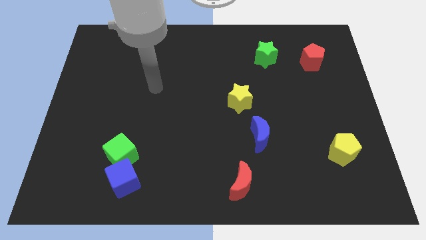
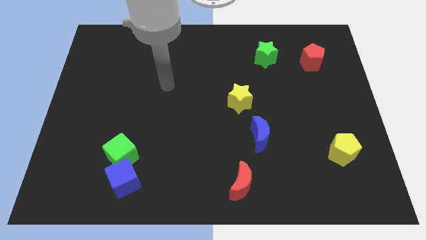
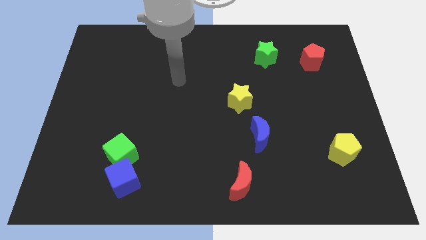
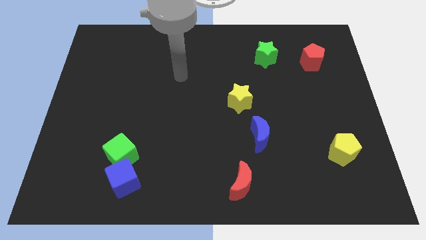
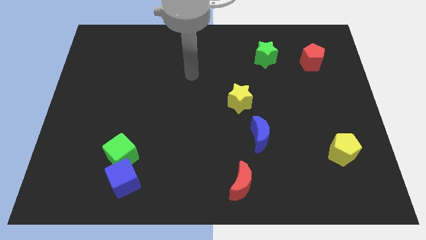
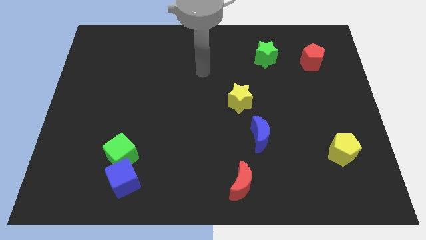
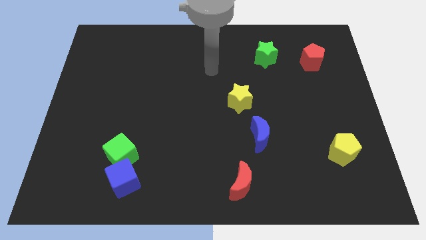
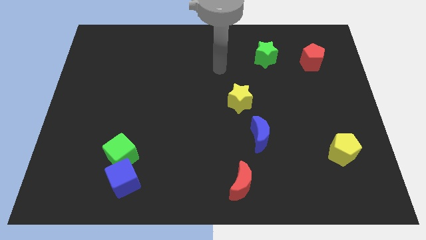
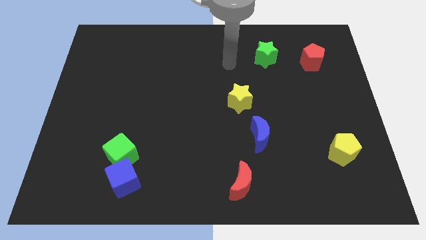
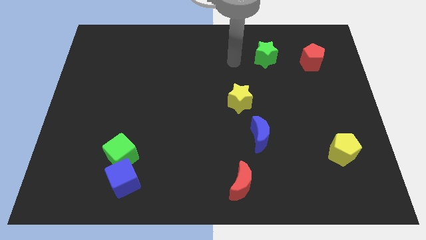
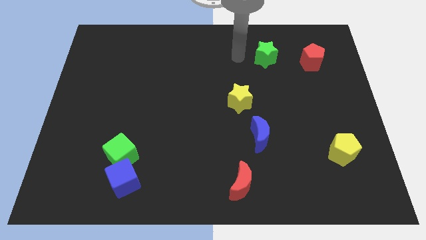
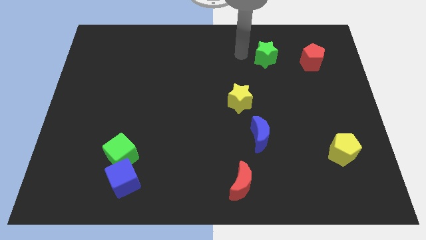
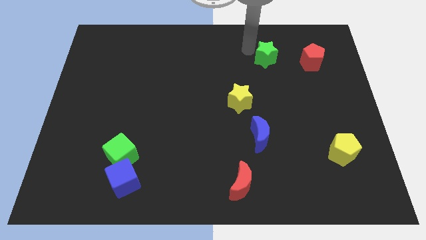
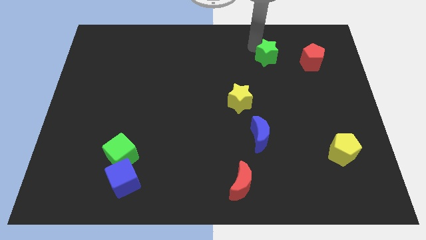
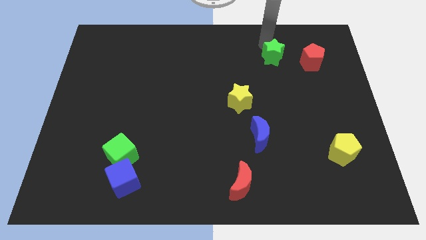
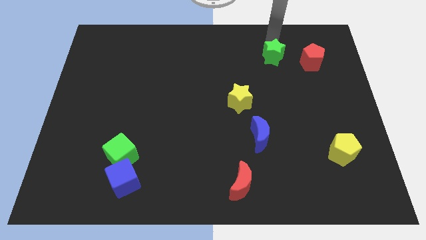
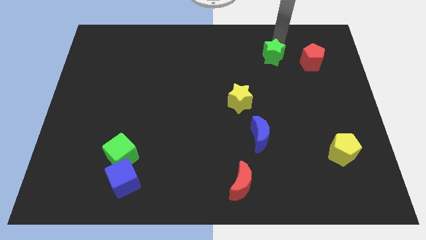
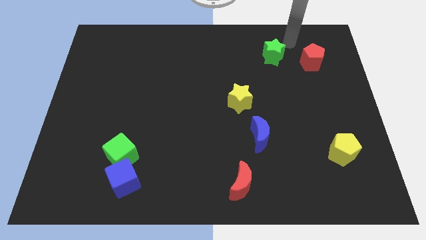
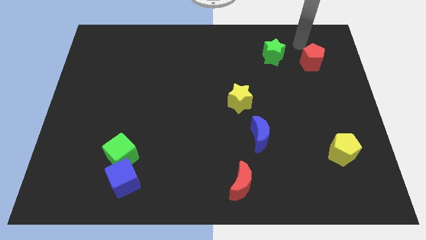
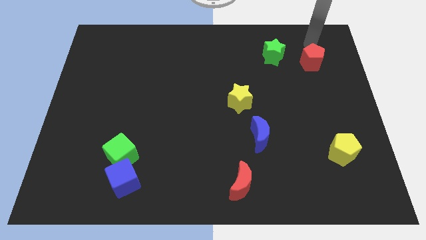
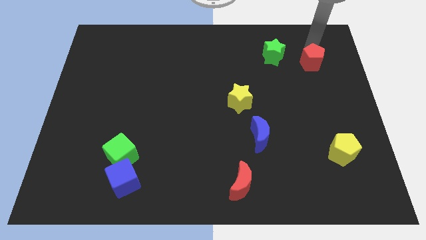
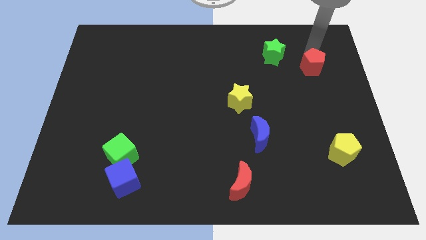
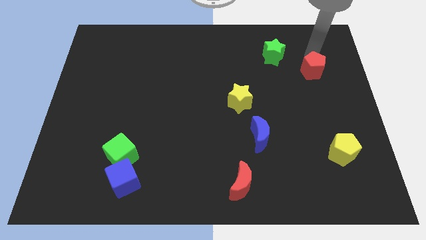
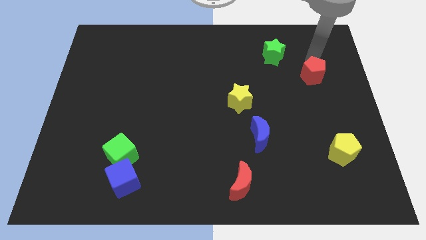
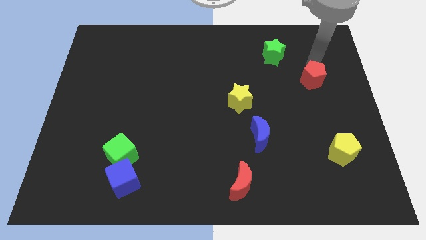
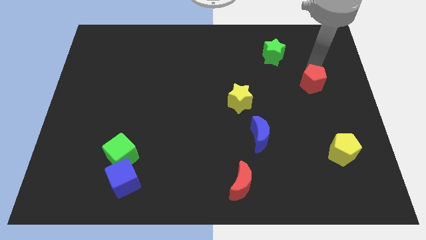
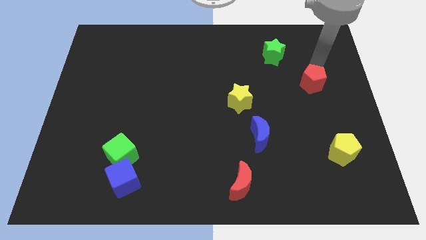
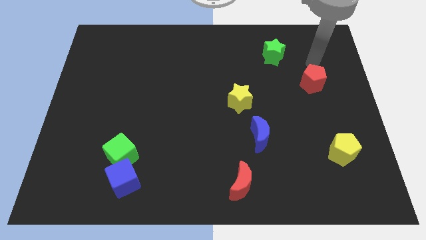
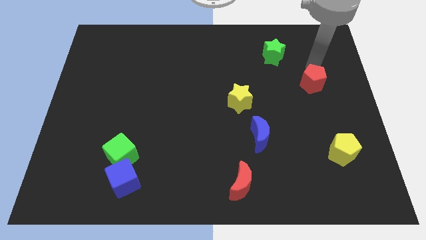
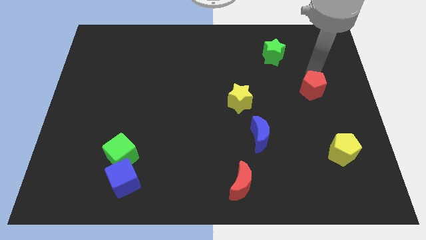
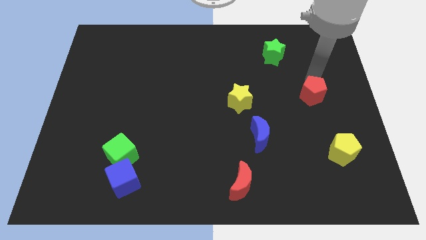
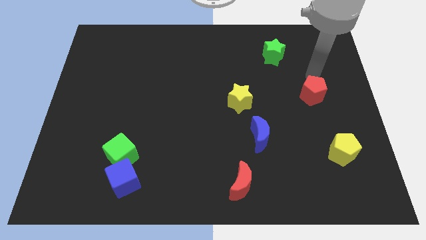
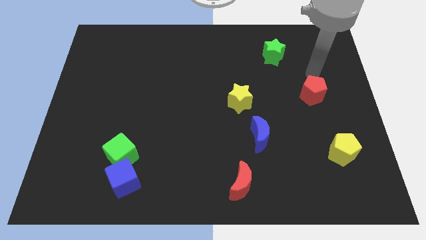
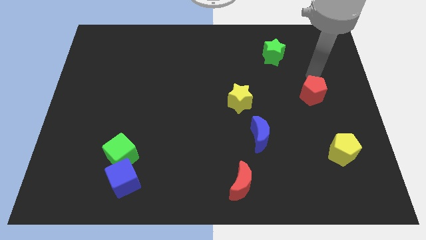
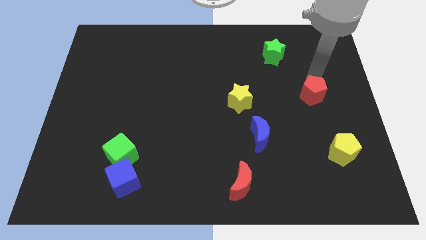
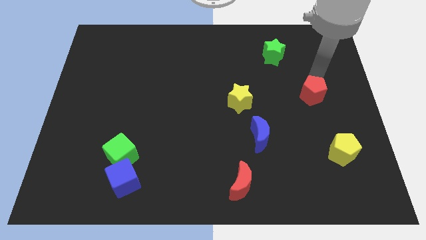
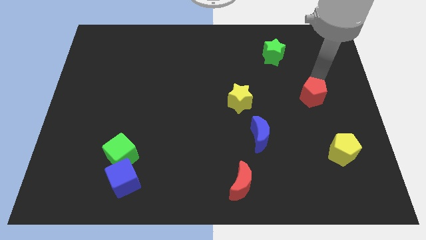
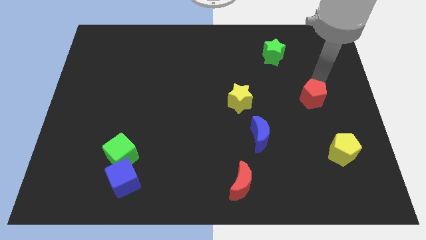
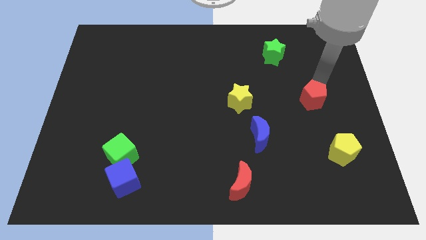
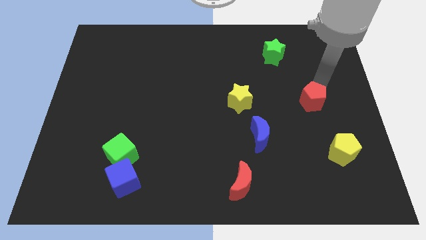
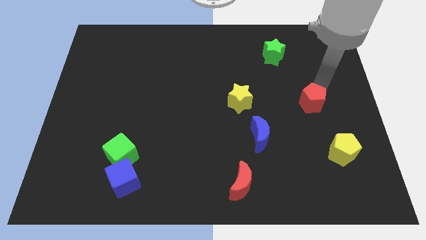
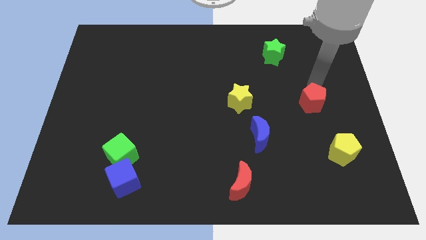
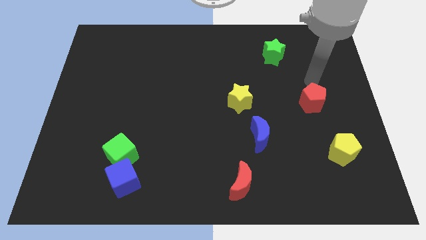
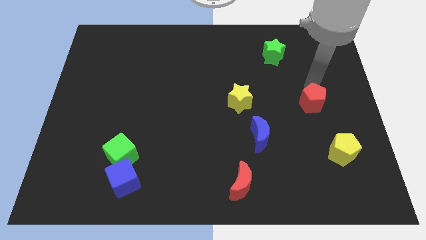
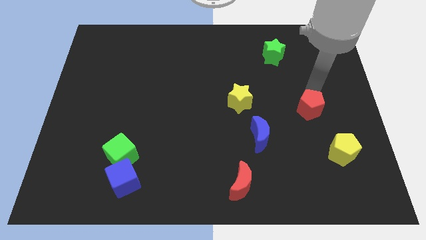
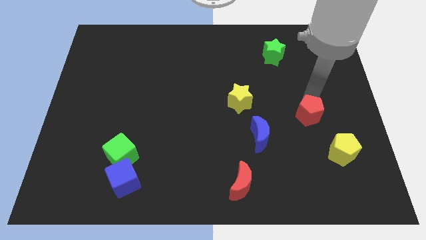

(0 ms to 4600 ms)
put the red pentagon diagonally up and to the left of the yellow pentagon

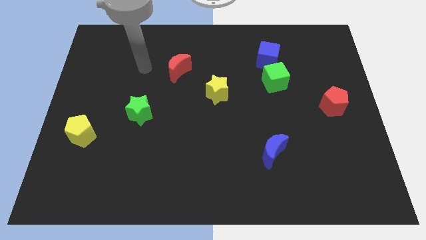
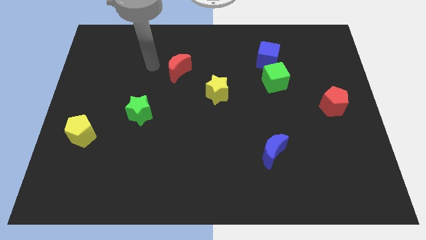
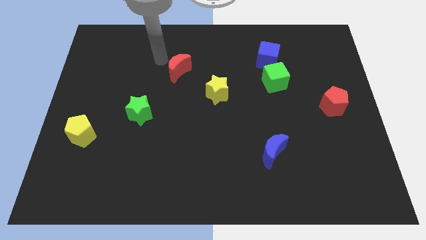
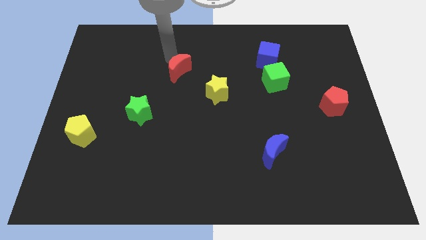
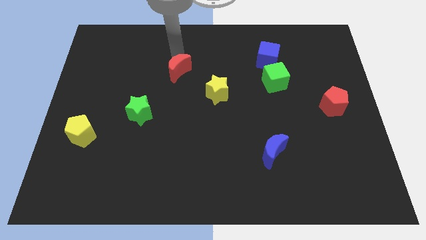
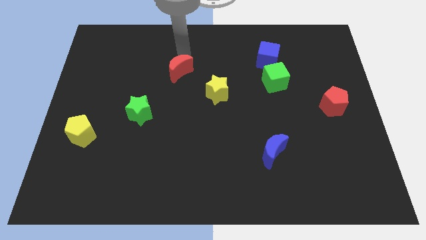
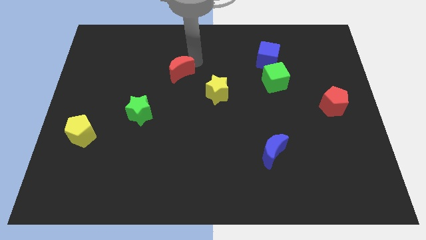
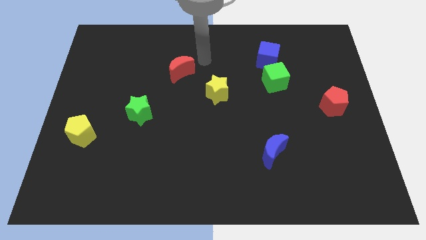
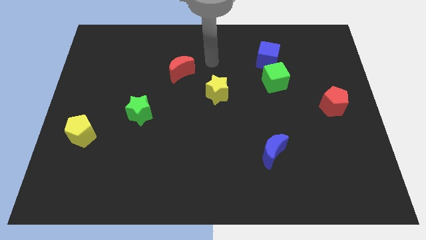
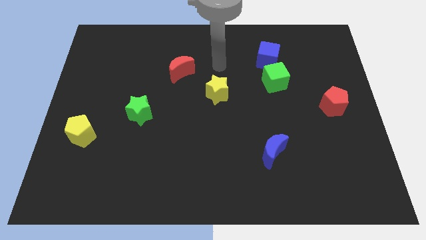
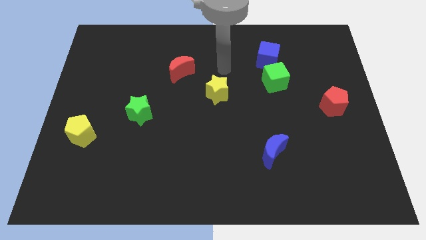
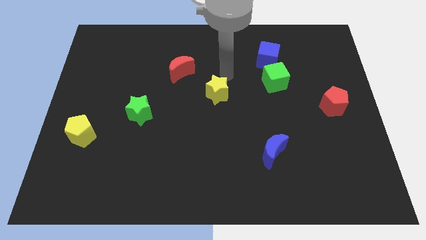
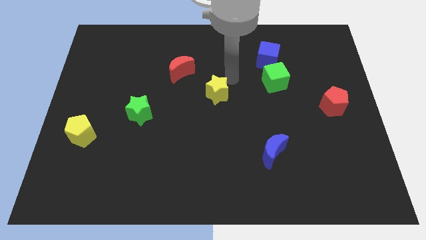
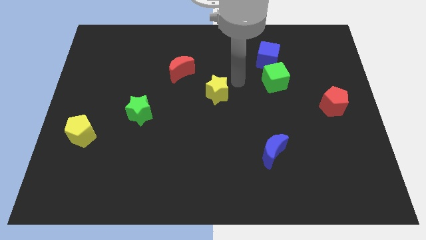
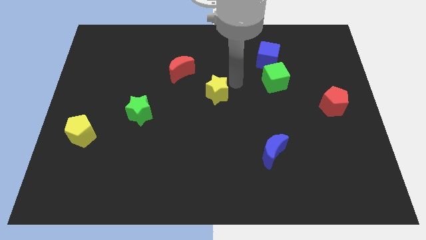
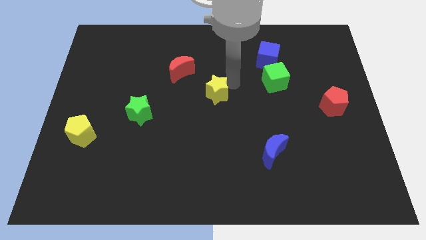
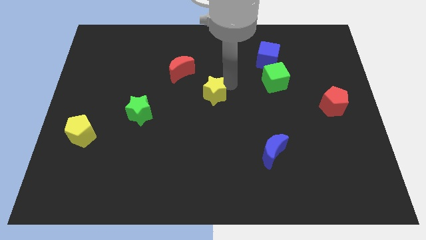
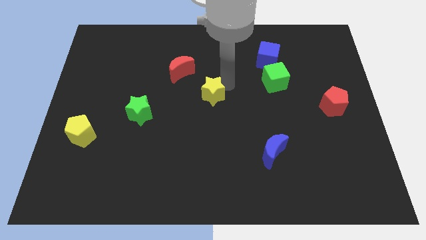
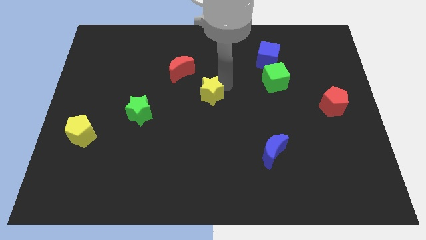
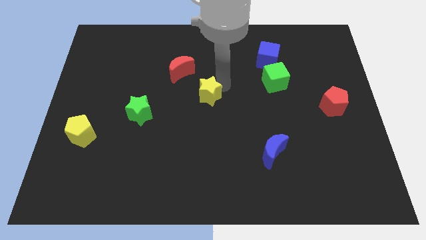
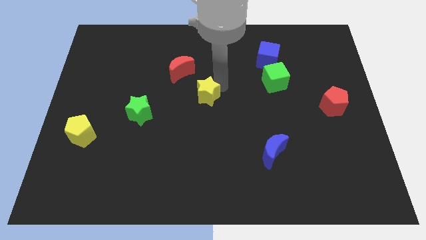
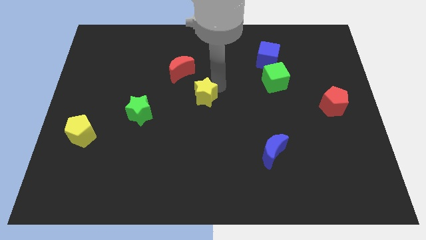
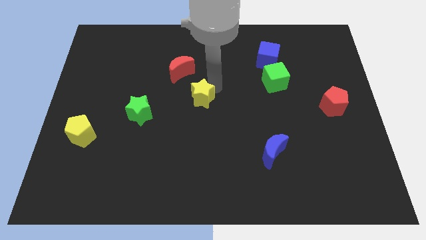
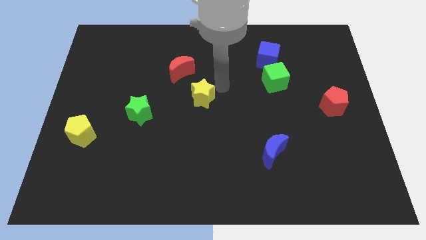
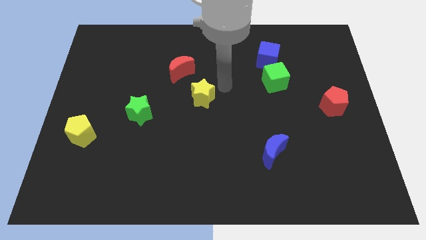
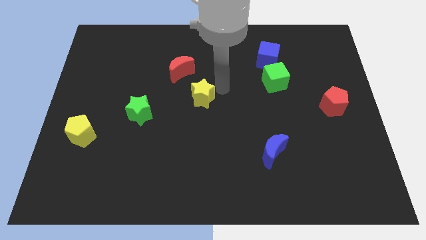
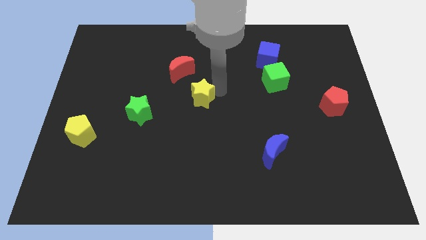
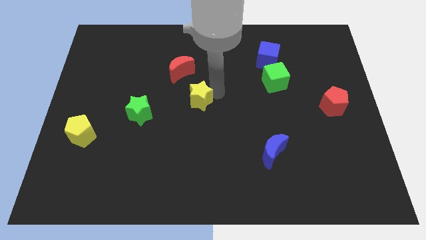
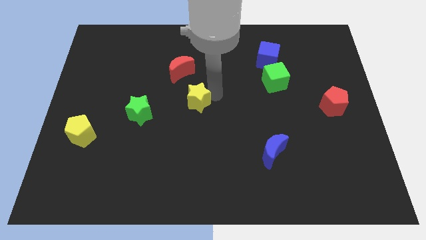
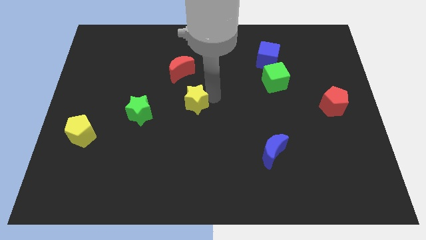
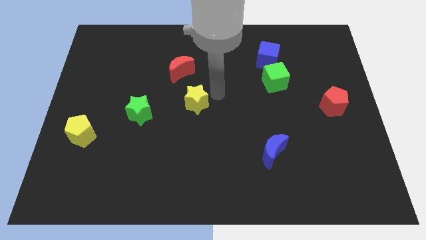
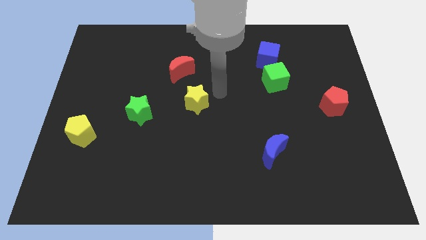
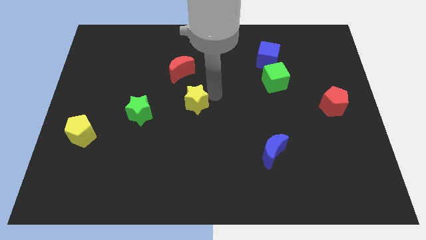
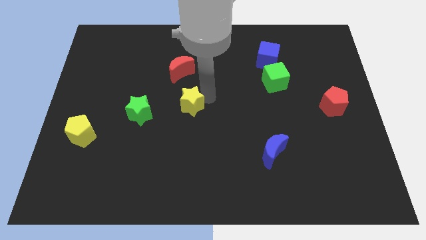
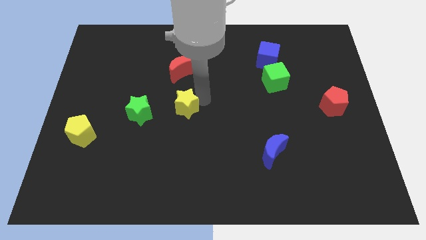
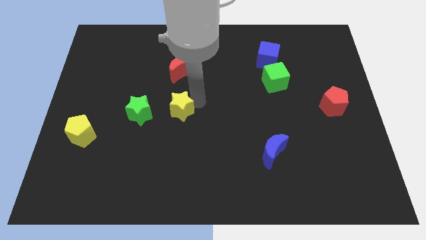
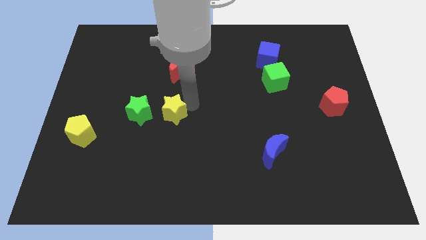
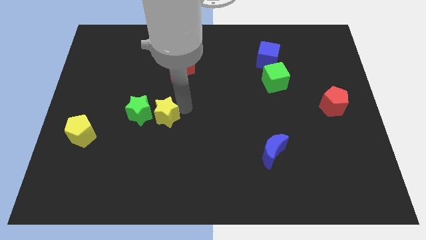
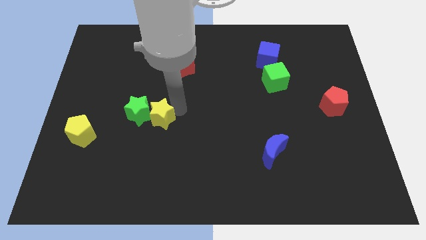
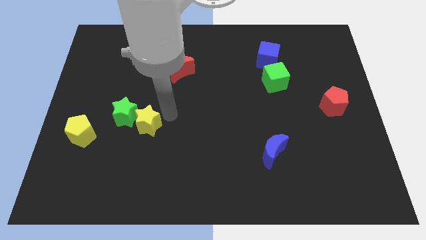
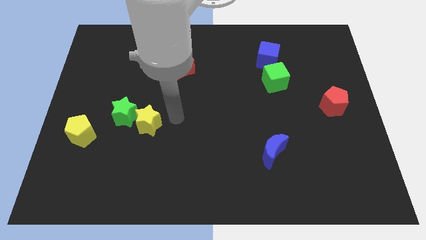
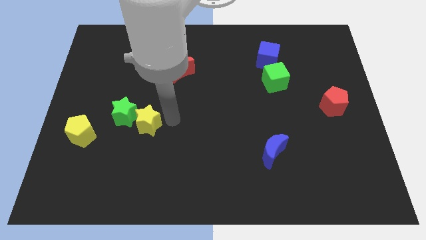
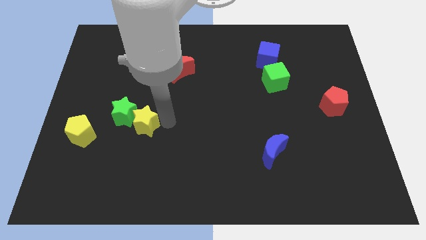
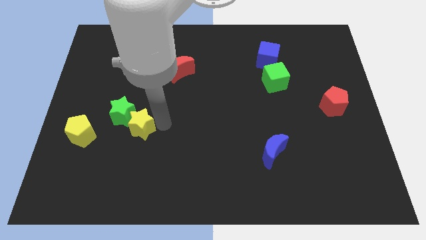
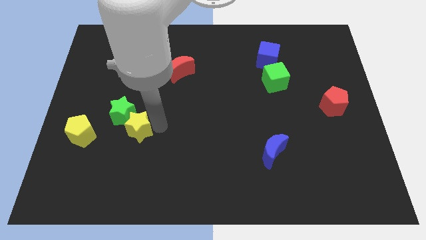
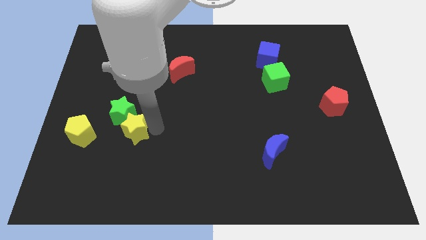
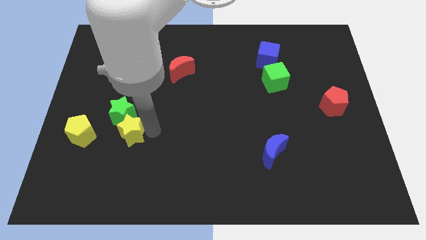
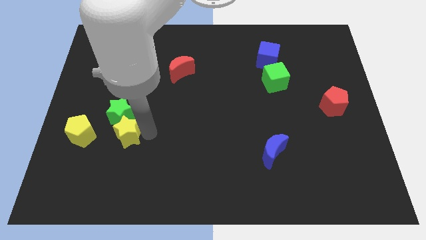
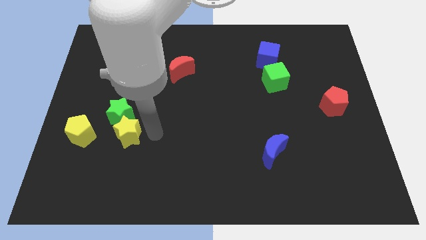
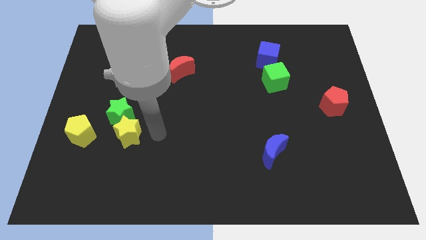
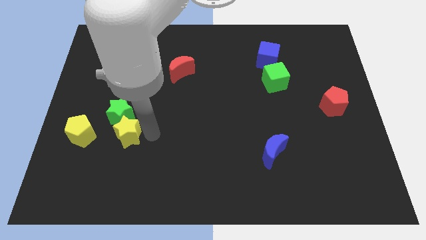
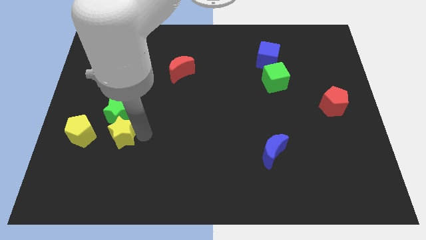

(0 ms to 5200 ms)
move the yellow star diagonally down and to the left of the green star
